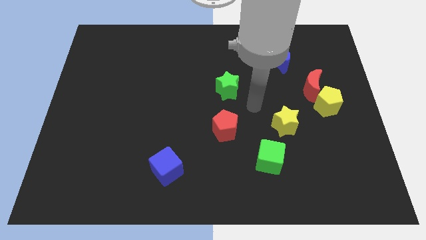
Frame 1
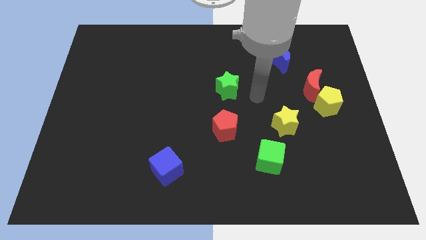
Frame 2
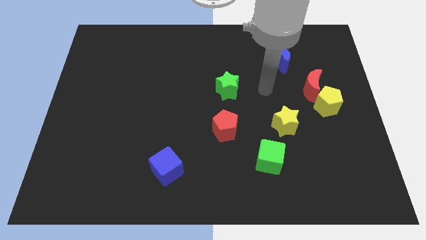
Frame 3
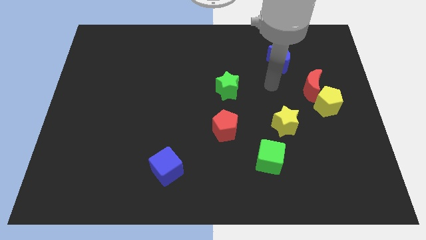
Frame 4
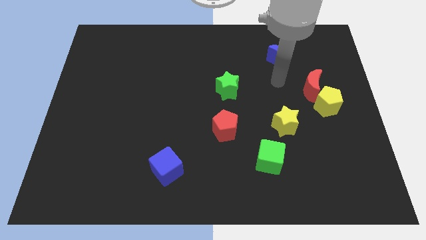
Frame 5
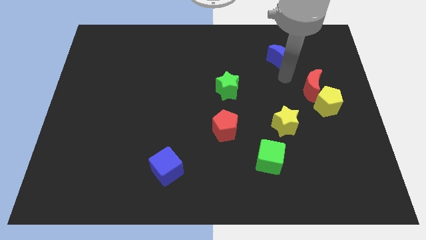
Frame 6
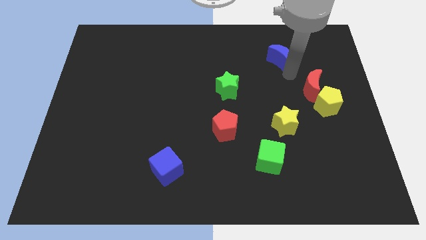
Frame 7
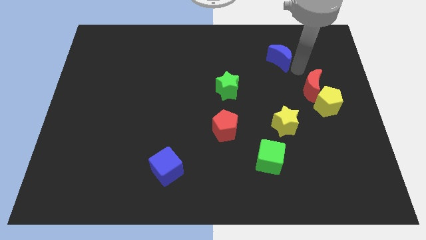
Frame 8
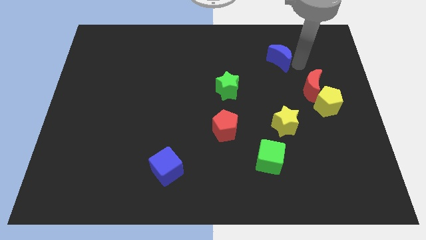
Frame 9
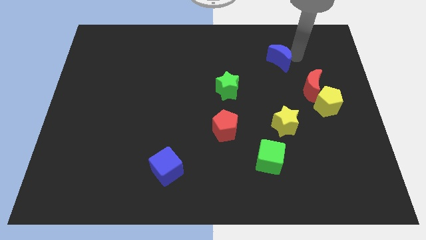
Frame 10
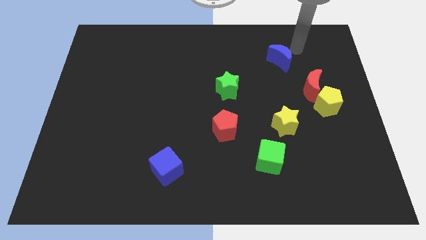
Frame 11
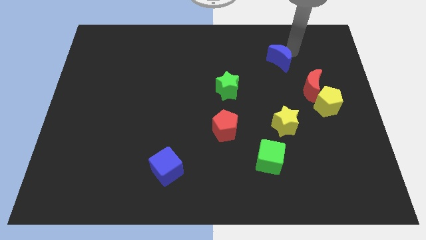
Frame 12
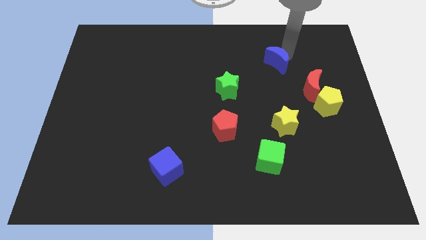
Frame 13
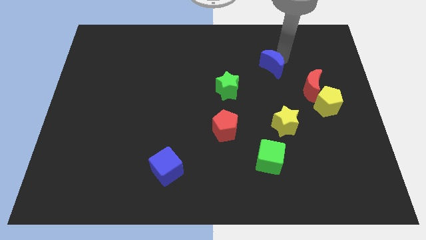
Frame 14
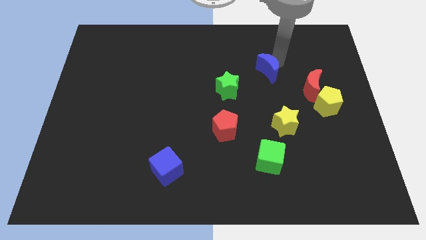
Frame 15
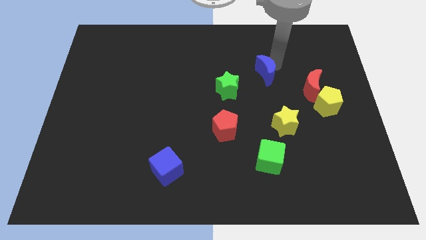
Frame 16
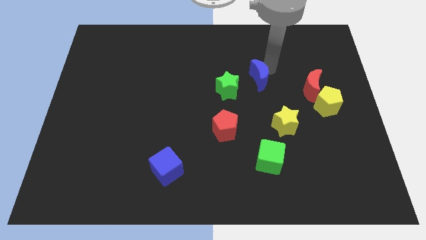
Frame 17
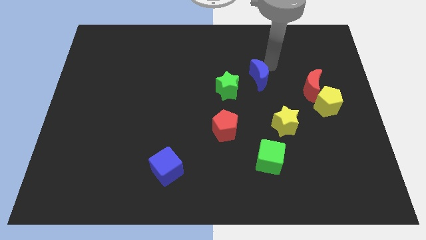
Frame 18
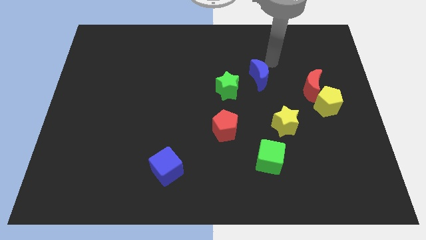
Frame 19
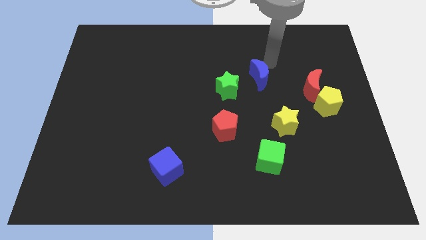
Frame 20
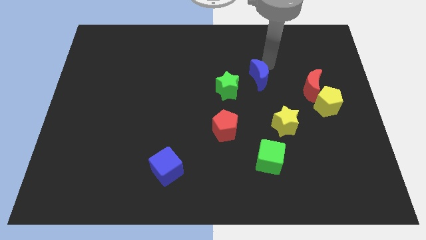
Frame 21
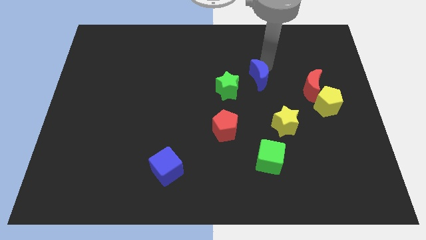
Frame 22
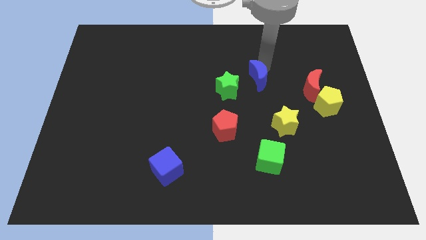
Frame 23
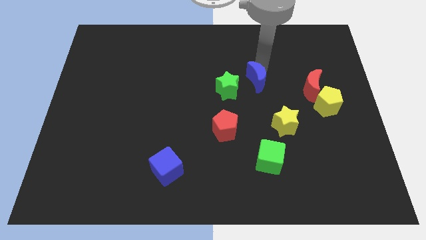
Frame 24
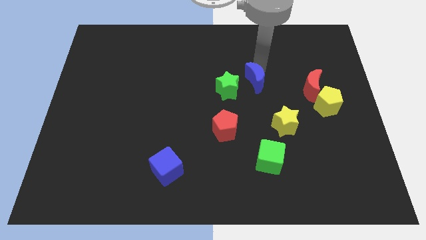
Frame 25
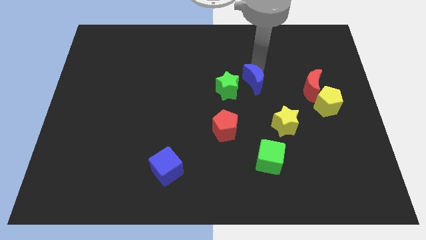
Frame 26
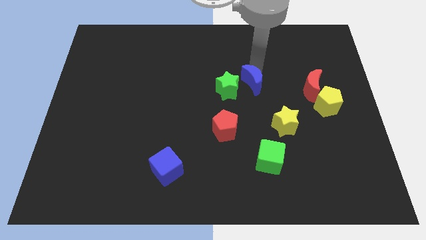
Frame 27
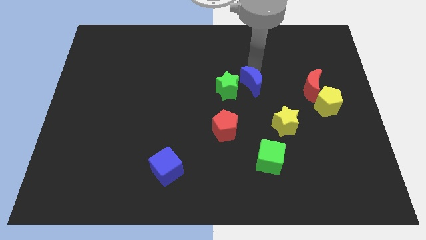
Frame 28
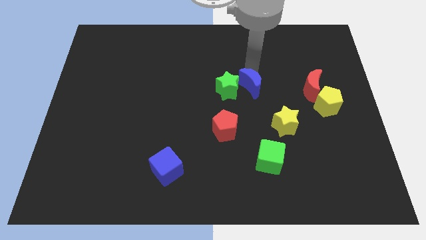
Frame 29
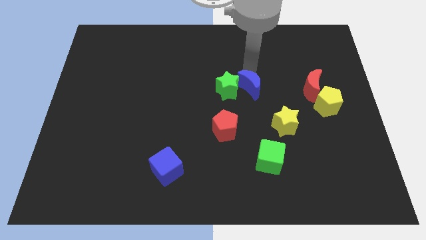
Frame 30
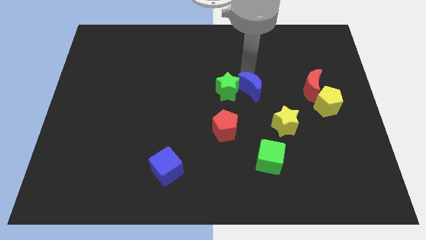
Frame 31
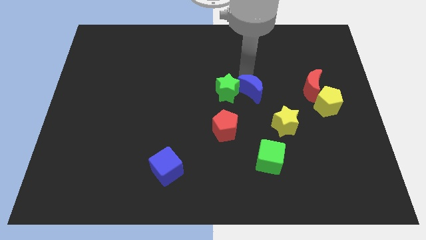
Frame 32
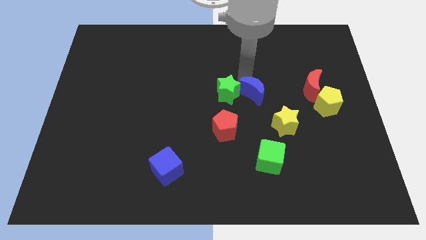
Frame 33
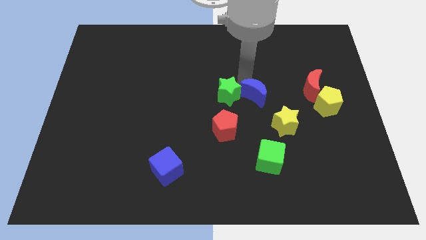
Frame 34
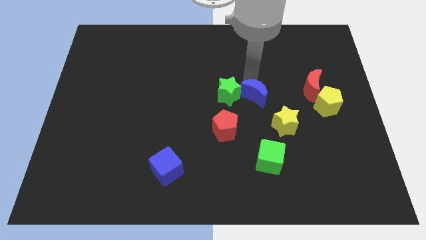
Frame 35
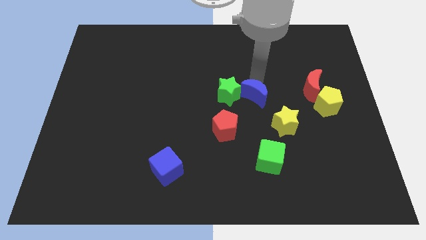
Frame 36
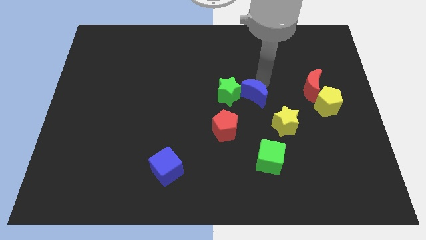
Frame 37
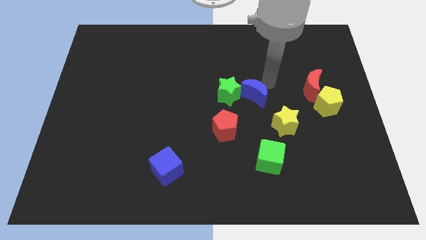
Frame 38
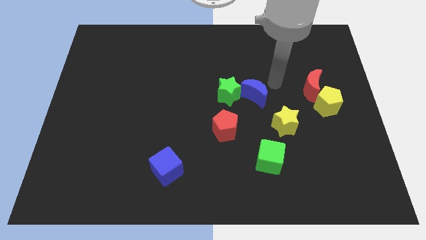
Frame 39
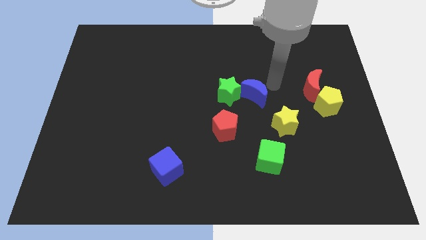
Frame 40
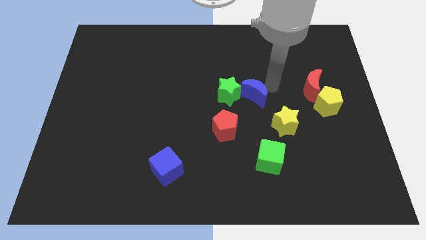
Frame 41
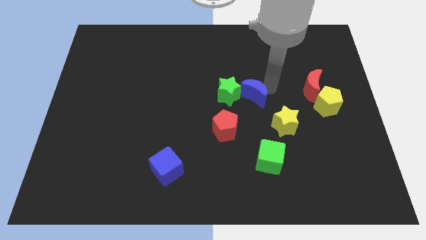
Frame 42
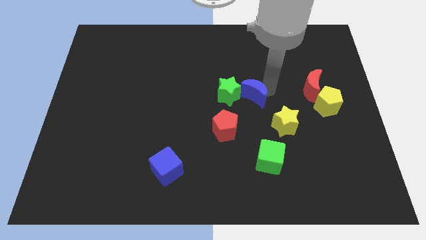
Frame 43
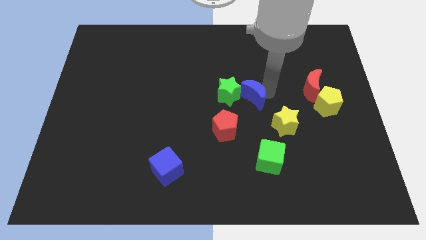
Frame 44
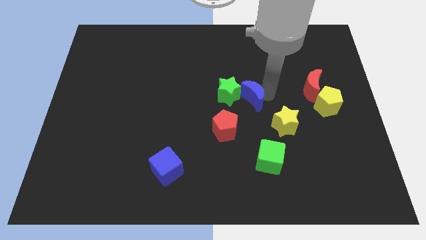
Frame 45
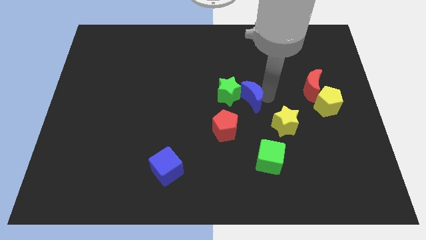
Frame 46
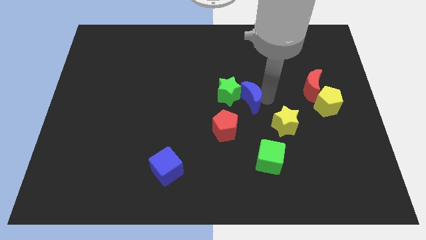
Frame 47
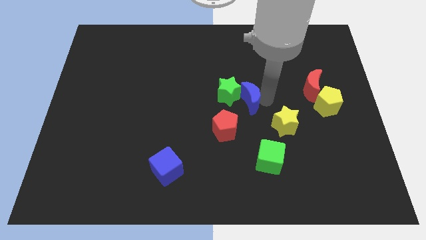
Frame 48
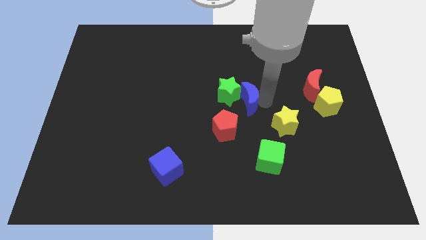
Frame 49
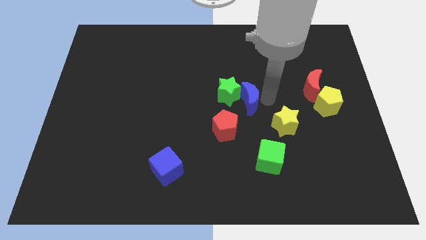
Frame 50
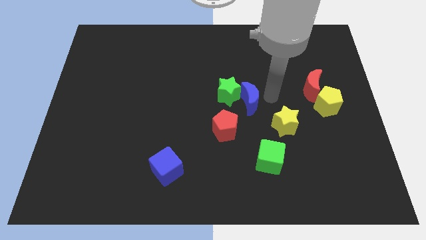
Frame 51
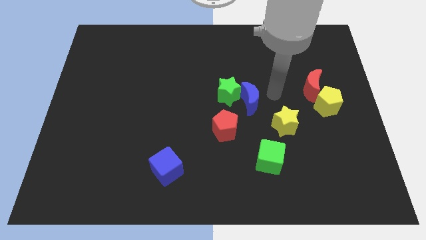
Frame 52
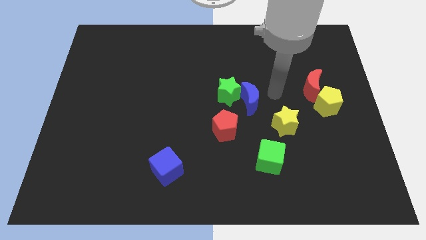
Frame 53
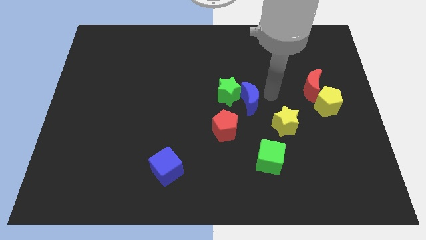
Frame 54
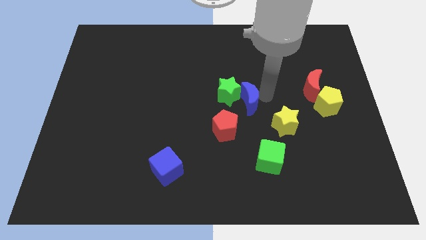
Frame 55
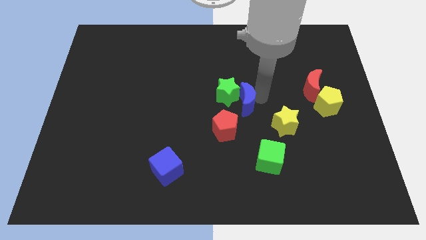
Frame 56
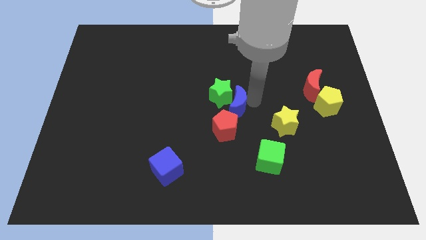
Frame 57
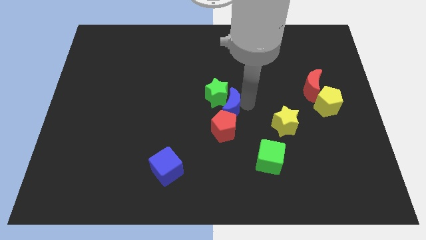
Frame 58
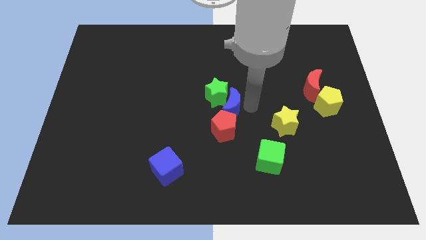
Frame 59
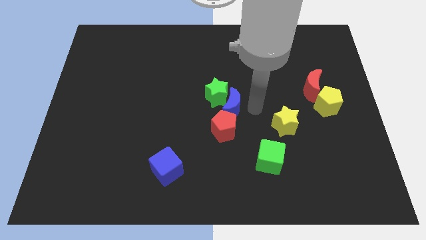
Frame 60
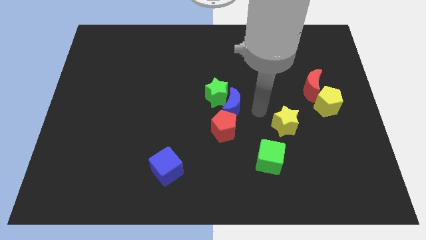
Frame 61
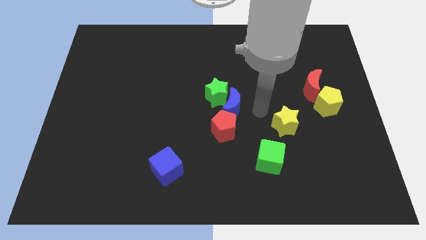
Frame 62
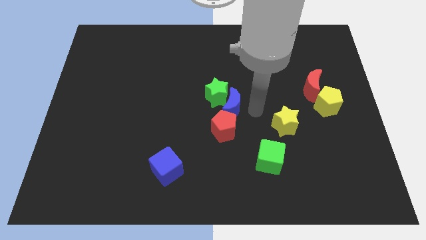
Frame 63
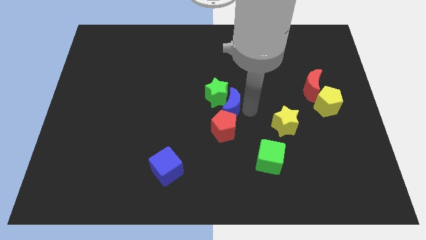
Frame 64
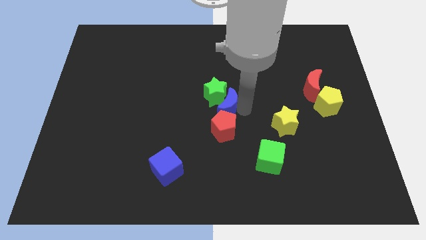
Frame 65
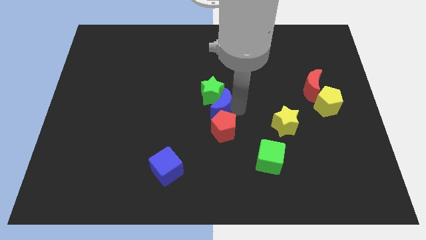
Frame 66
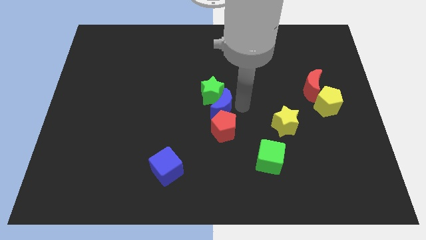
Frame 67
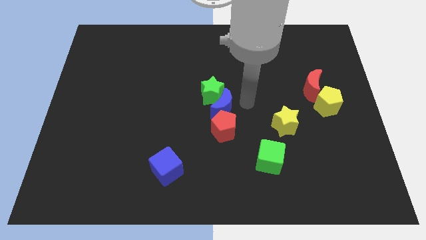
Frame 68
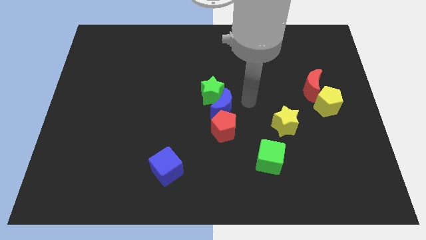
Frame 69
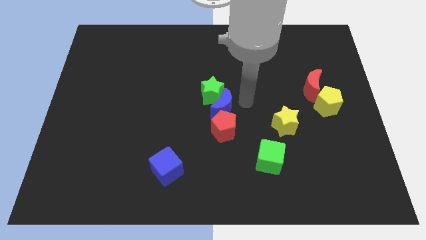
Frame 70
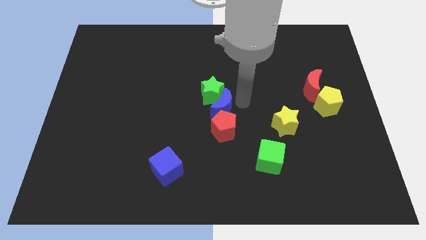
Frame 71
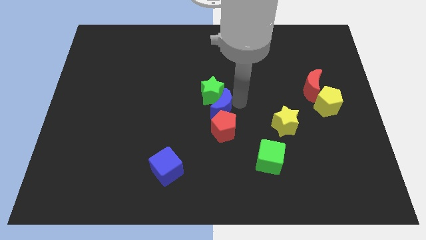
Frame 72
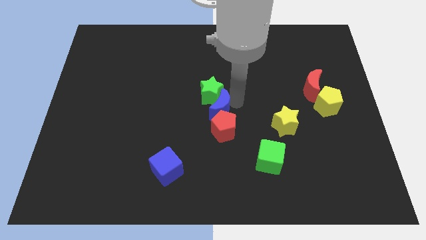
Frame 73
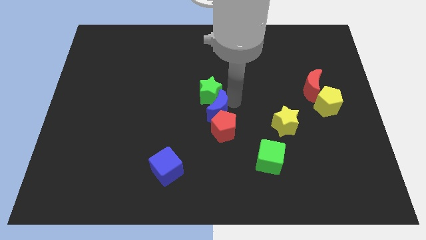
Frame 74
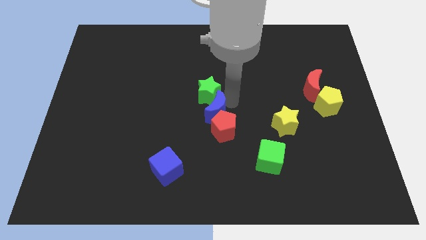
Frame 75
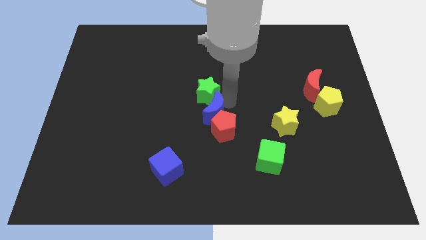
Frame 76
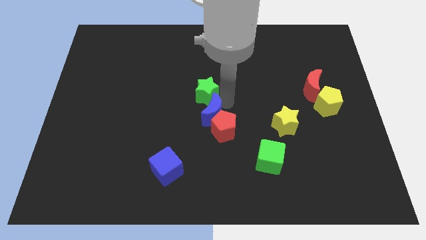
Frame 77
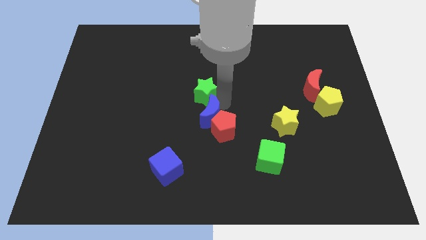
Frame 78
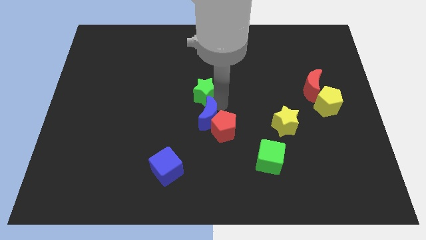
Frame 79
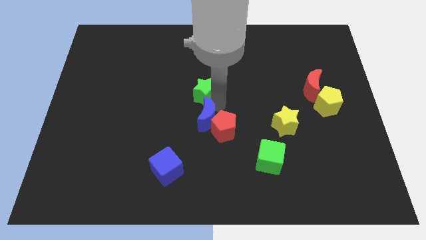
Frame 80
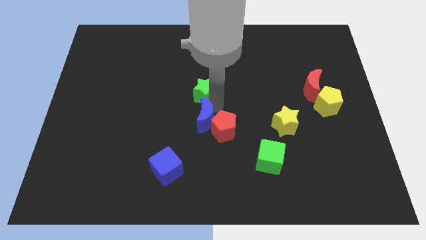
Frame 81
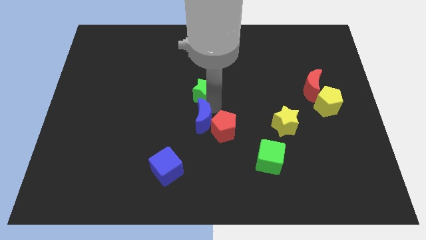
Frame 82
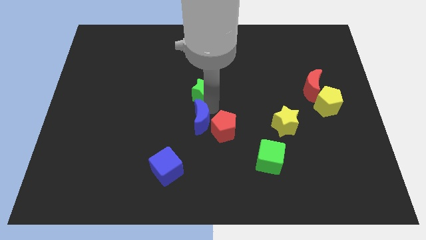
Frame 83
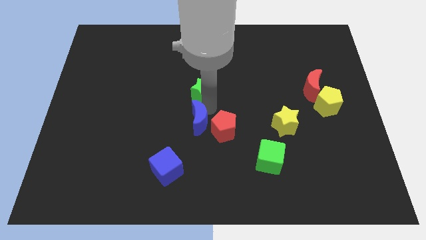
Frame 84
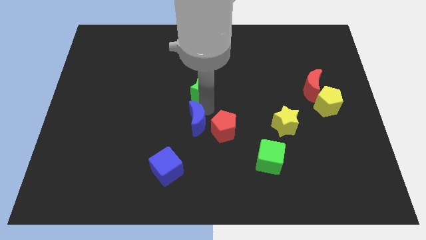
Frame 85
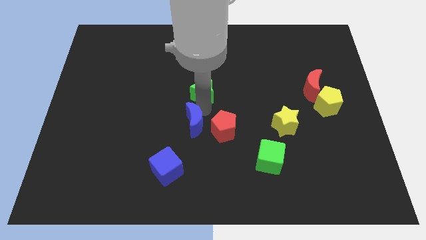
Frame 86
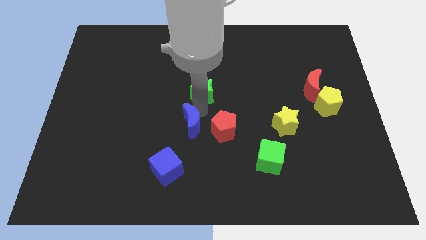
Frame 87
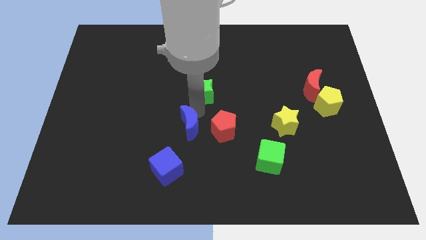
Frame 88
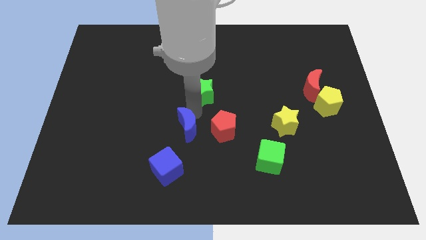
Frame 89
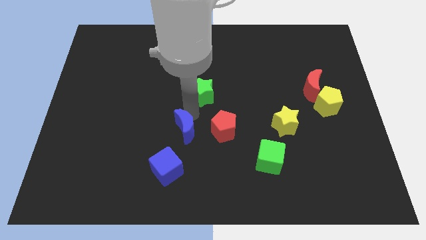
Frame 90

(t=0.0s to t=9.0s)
slide the blue moon diagonally up and to the right of the blue cube
